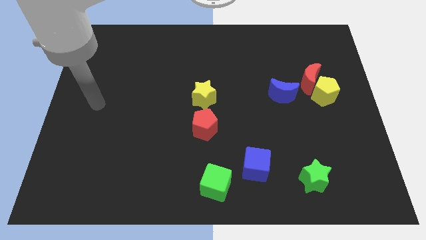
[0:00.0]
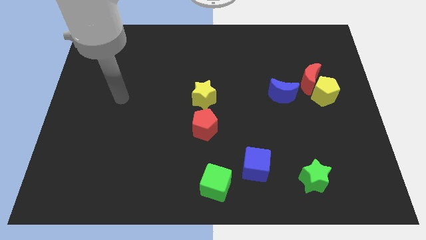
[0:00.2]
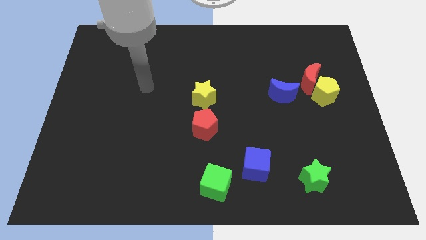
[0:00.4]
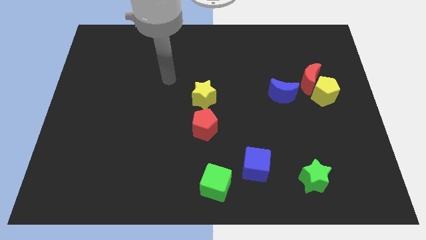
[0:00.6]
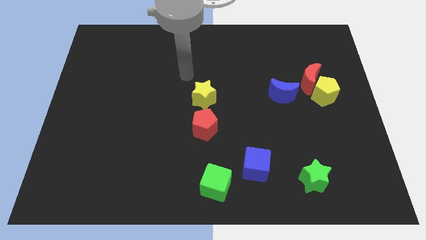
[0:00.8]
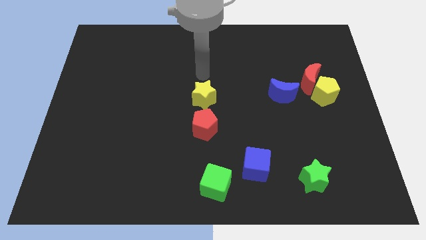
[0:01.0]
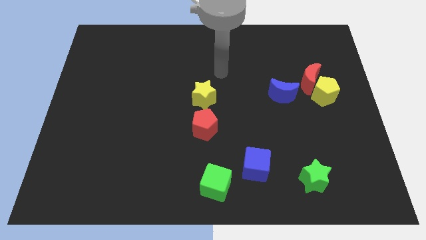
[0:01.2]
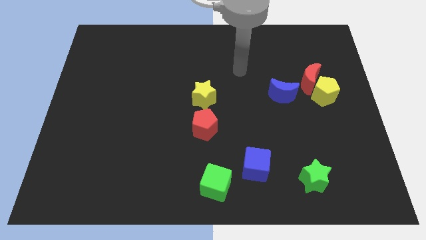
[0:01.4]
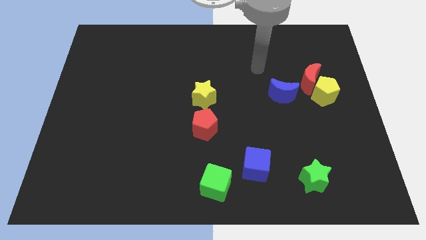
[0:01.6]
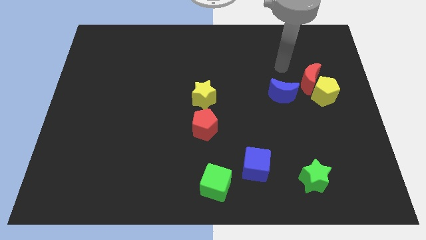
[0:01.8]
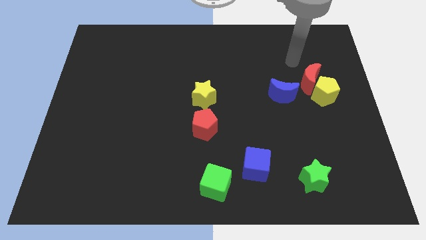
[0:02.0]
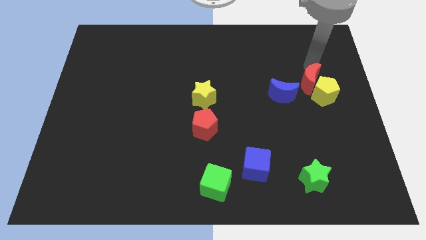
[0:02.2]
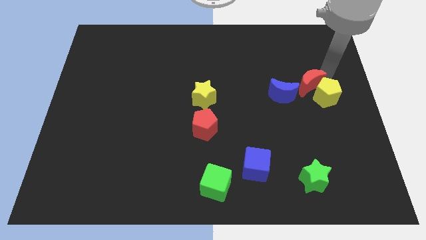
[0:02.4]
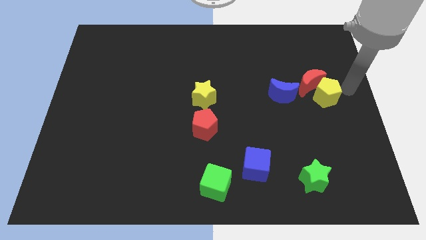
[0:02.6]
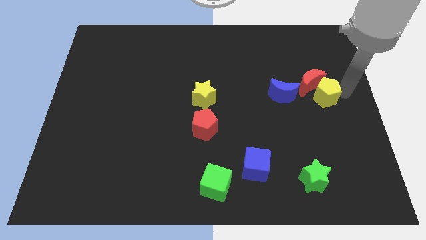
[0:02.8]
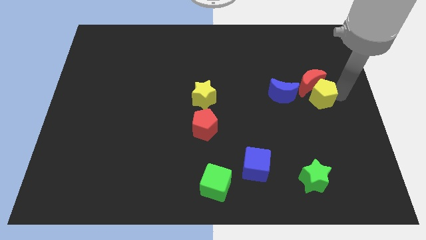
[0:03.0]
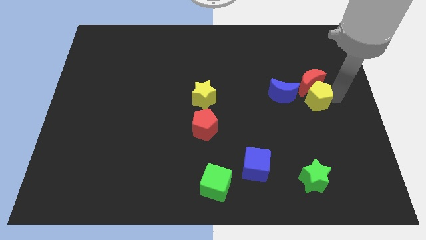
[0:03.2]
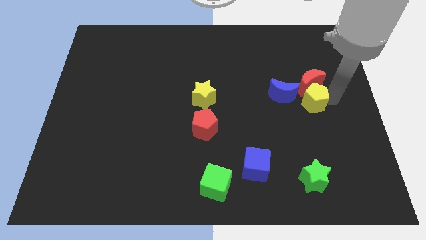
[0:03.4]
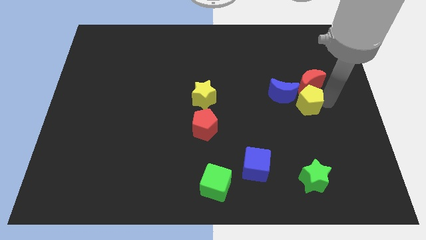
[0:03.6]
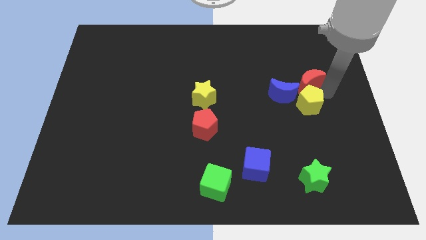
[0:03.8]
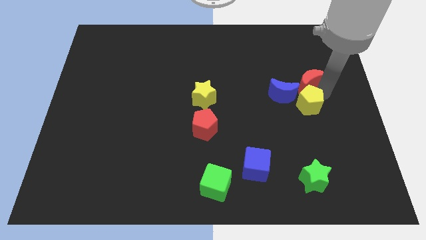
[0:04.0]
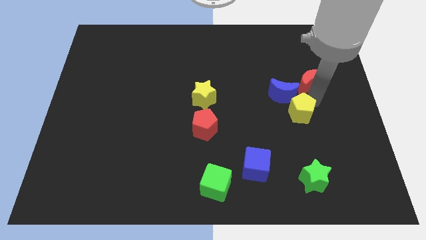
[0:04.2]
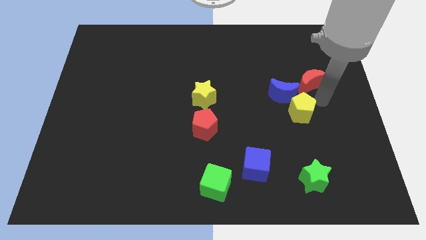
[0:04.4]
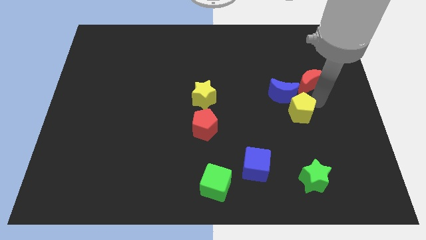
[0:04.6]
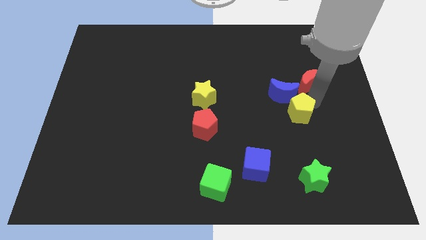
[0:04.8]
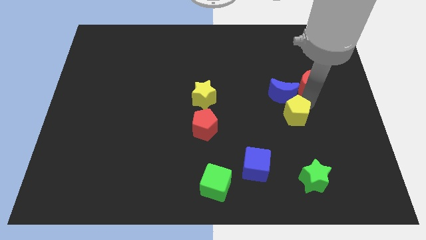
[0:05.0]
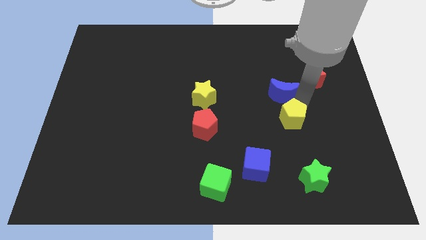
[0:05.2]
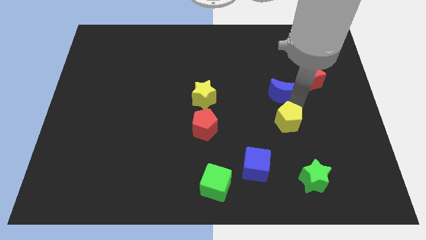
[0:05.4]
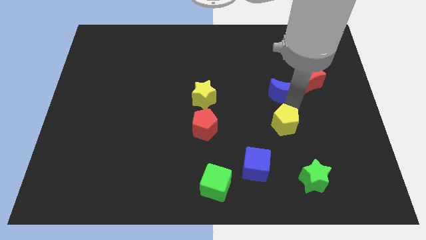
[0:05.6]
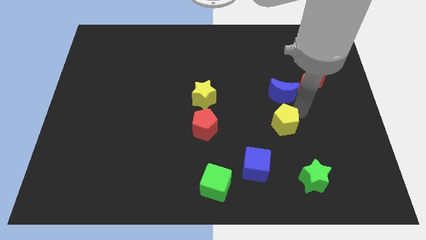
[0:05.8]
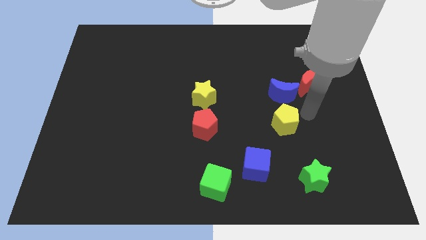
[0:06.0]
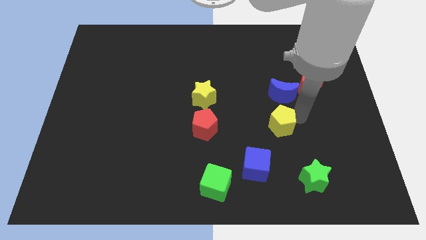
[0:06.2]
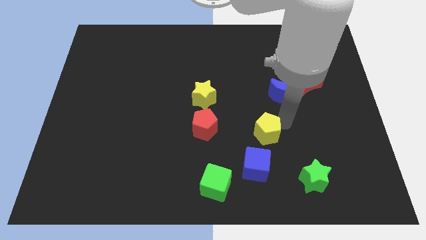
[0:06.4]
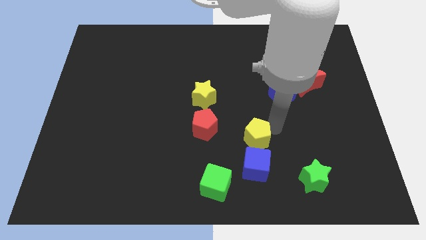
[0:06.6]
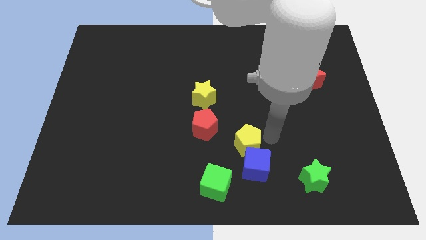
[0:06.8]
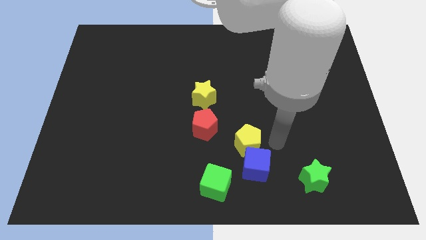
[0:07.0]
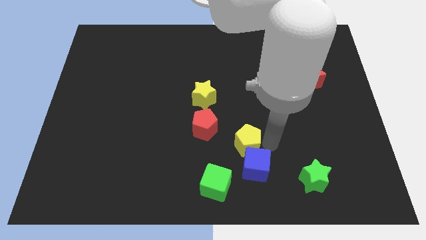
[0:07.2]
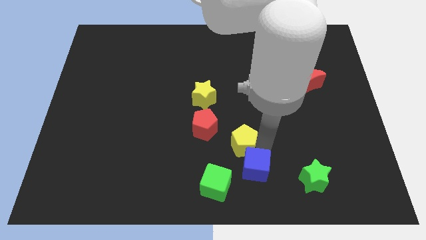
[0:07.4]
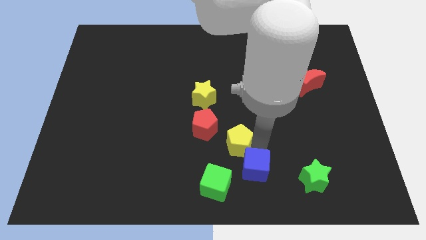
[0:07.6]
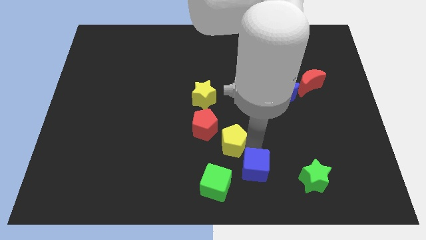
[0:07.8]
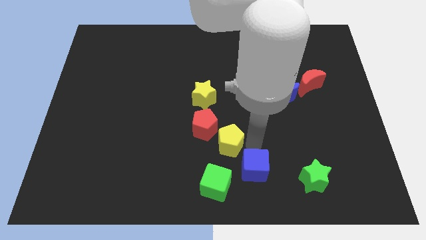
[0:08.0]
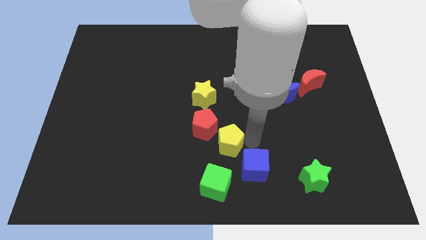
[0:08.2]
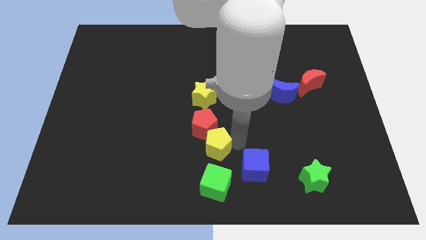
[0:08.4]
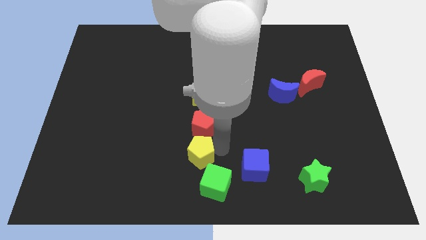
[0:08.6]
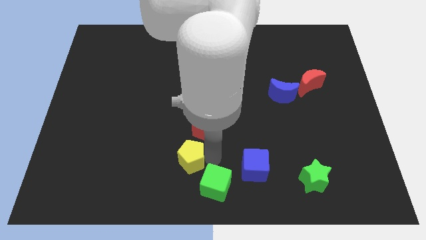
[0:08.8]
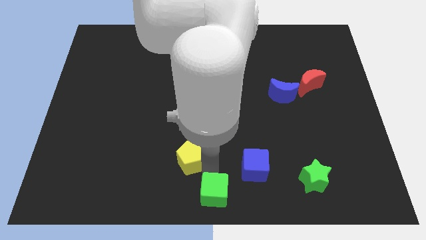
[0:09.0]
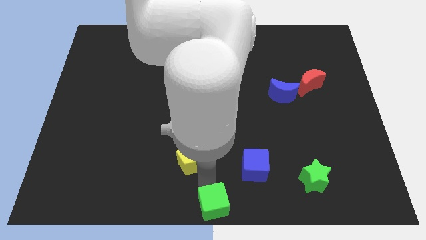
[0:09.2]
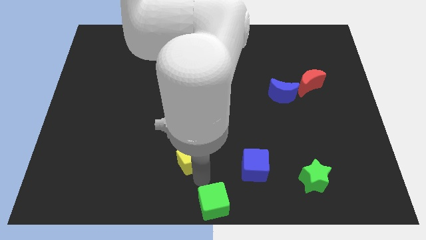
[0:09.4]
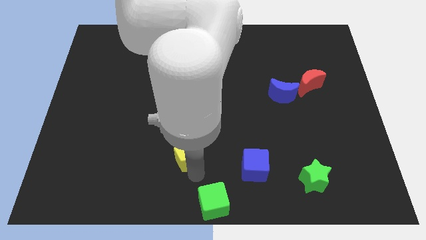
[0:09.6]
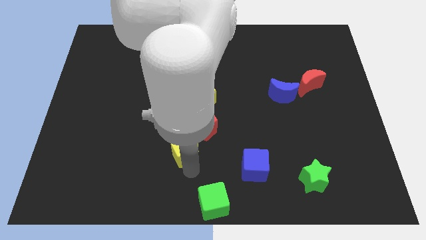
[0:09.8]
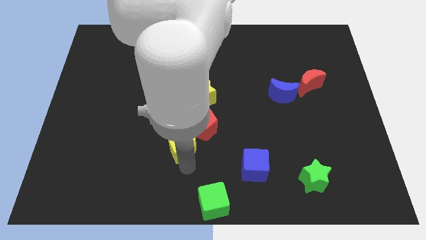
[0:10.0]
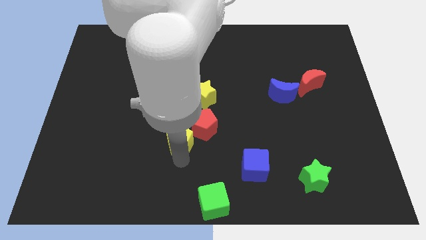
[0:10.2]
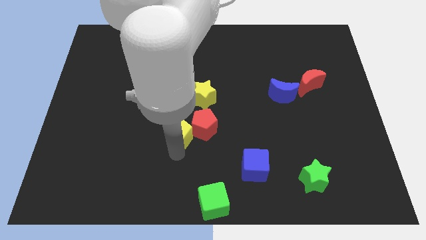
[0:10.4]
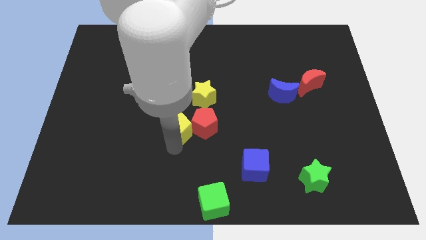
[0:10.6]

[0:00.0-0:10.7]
move the yellow pentagon to the top left side of the red pentagon

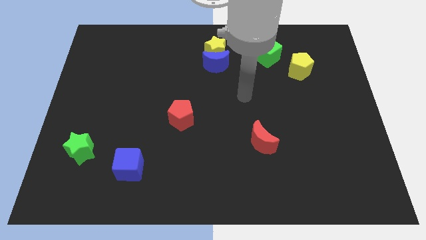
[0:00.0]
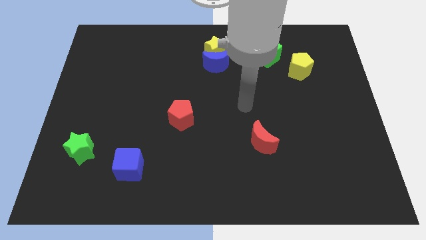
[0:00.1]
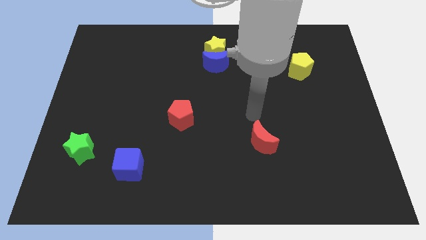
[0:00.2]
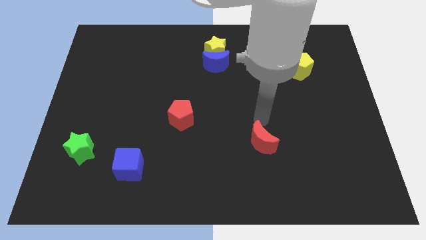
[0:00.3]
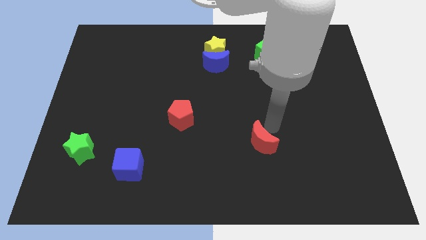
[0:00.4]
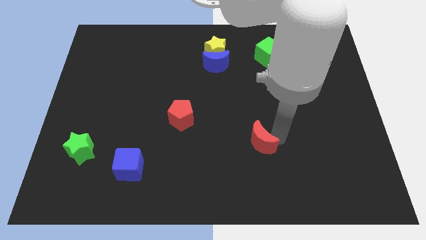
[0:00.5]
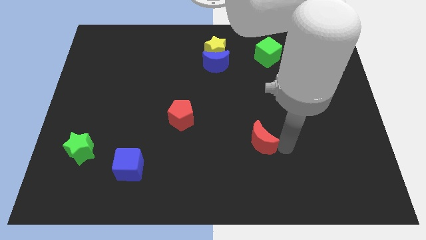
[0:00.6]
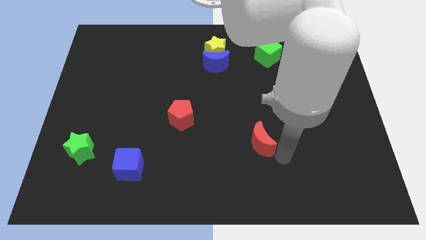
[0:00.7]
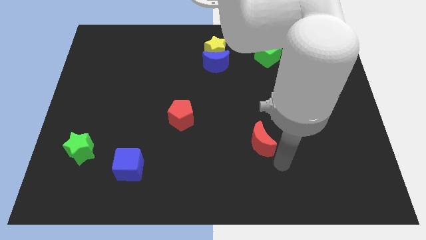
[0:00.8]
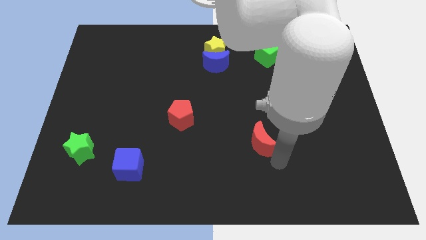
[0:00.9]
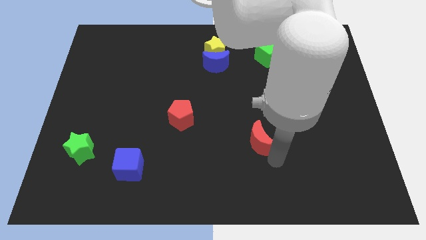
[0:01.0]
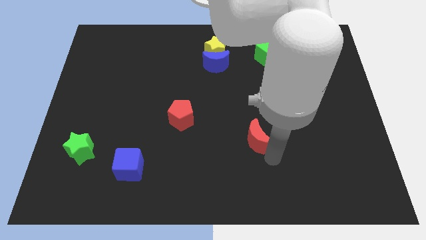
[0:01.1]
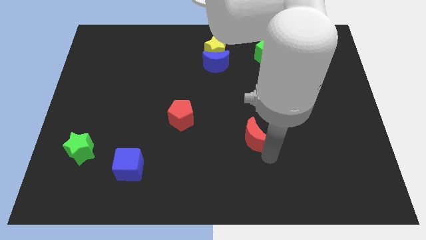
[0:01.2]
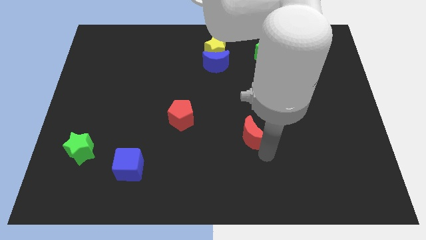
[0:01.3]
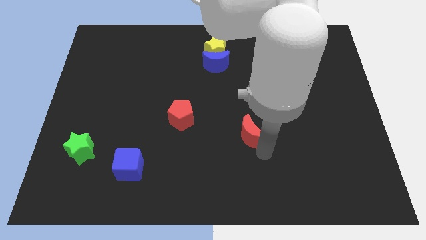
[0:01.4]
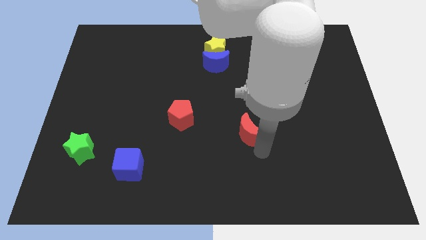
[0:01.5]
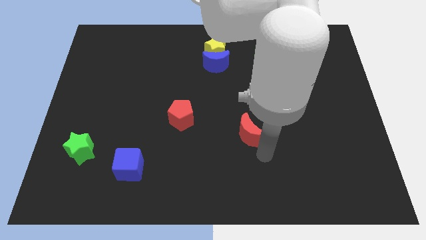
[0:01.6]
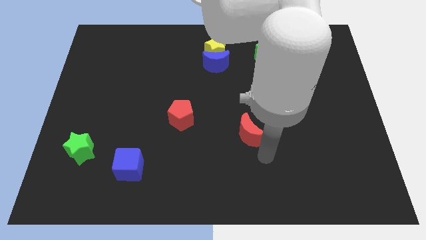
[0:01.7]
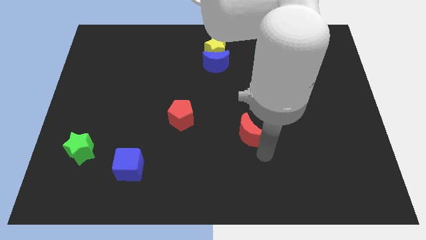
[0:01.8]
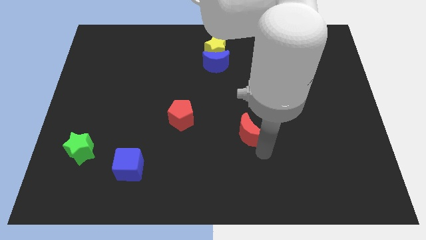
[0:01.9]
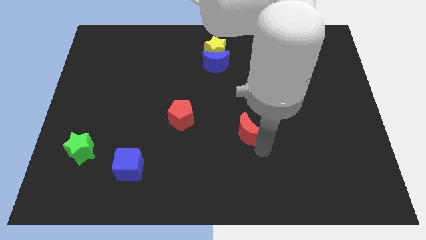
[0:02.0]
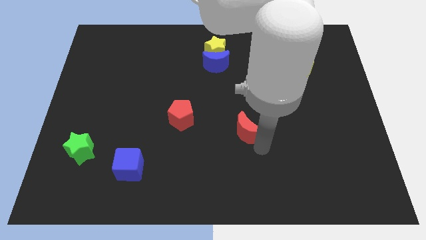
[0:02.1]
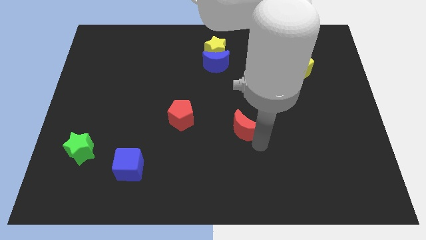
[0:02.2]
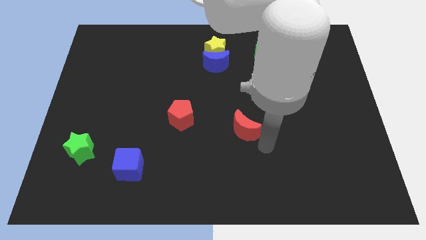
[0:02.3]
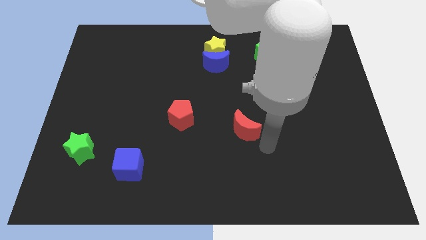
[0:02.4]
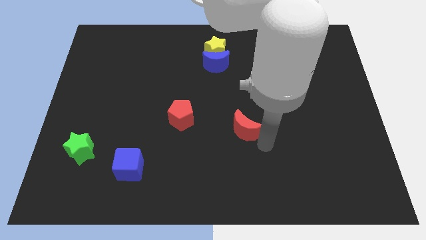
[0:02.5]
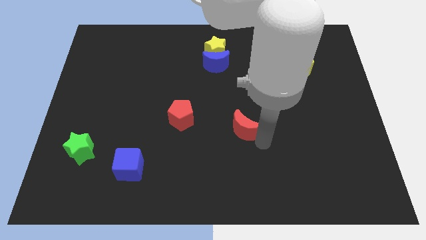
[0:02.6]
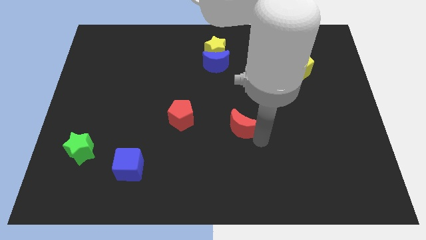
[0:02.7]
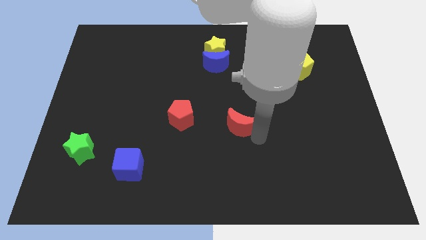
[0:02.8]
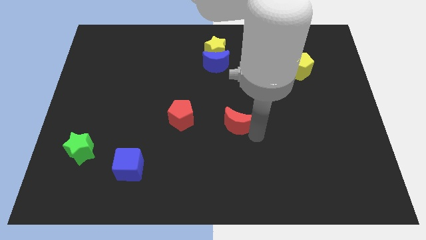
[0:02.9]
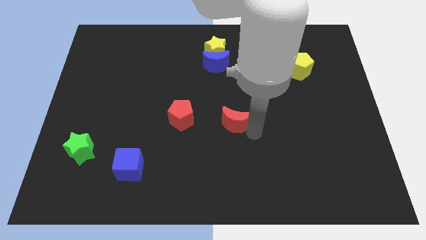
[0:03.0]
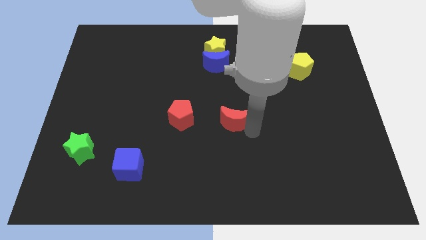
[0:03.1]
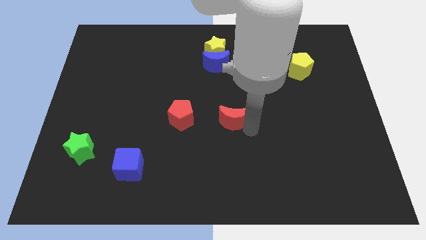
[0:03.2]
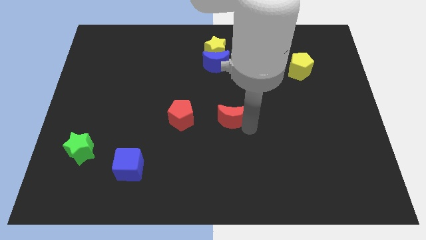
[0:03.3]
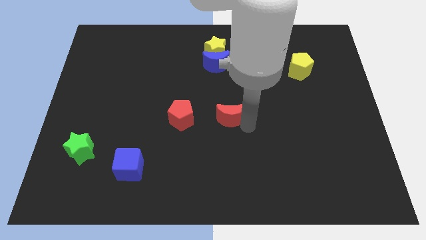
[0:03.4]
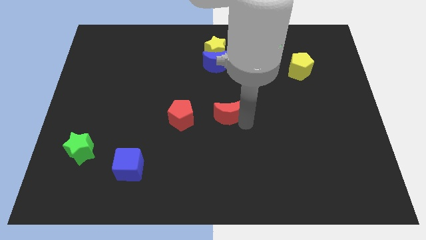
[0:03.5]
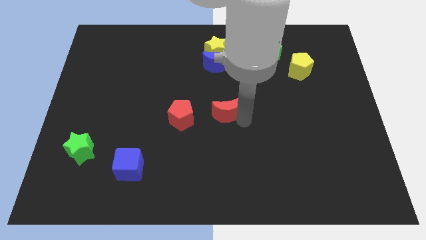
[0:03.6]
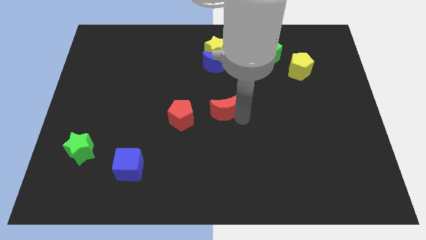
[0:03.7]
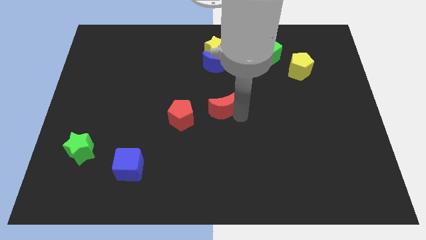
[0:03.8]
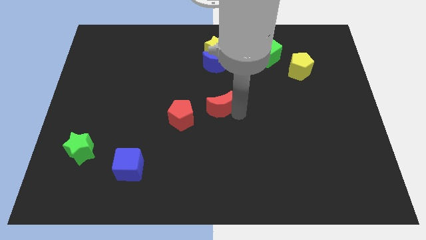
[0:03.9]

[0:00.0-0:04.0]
move the red moon diagonally up and to the right of the red pentagon
